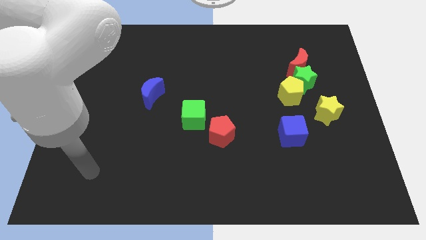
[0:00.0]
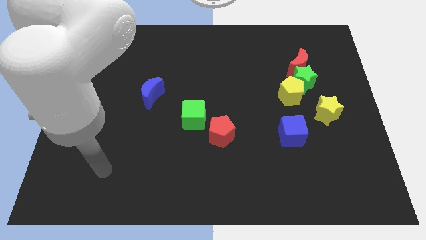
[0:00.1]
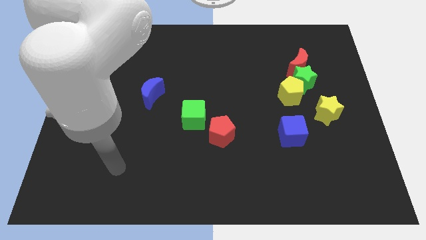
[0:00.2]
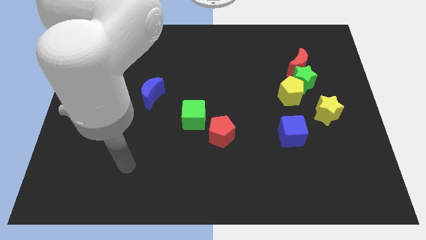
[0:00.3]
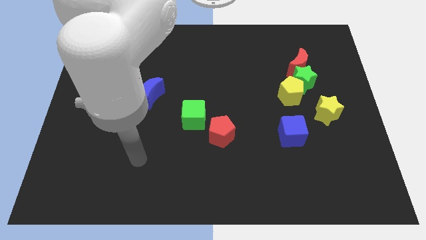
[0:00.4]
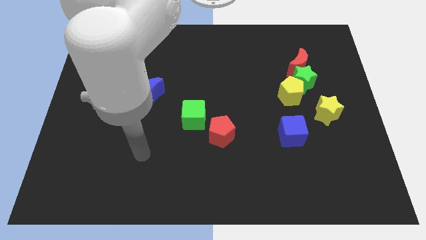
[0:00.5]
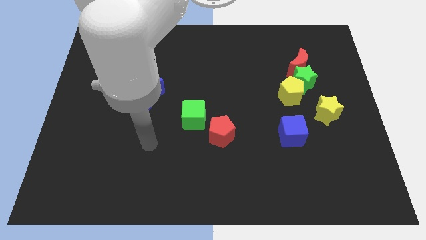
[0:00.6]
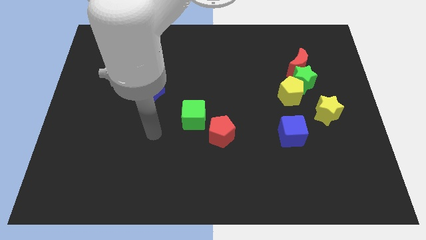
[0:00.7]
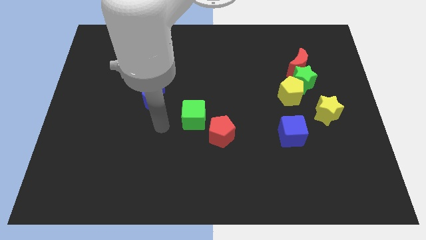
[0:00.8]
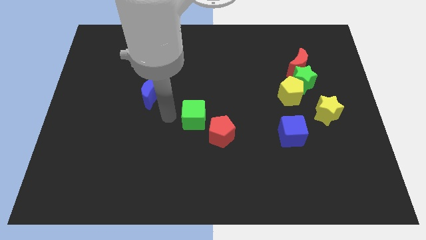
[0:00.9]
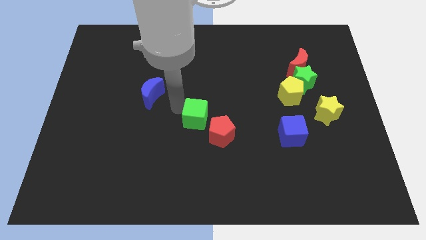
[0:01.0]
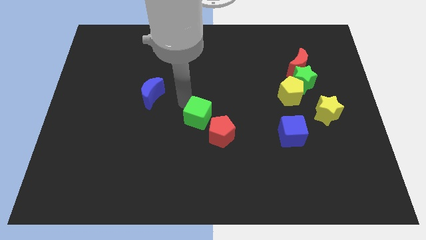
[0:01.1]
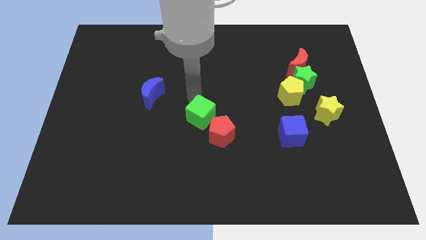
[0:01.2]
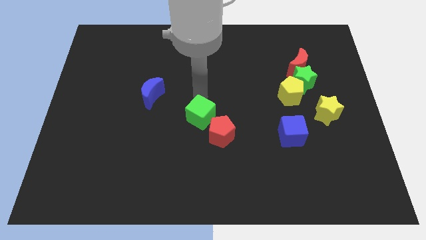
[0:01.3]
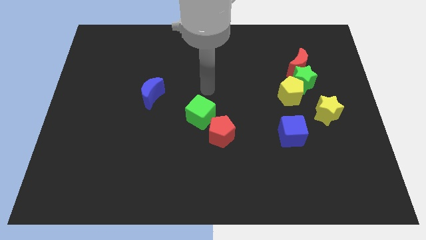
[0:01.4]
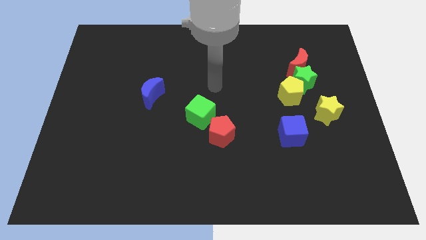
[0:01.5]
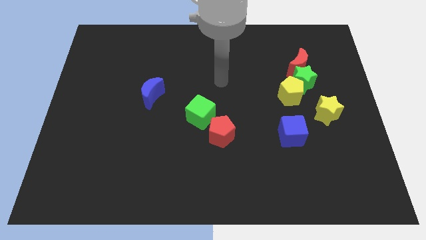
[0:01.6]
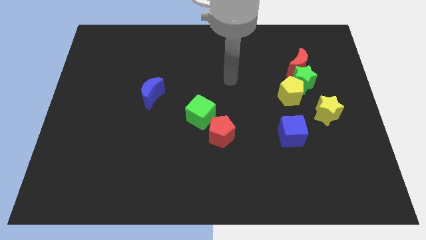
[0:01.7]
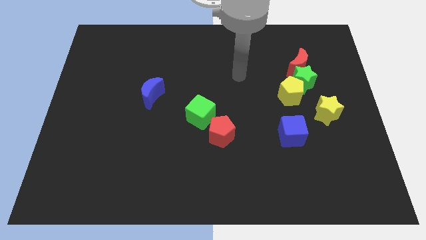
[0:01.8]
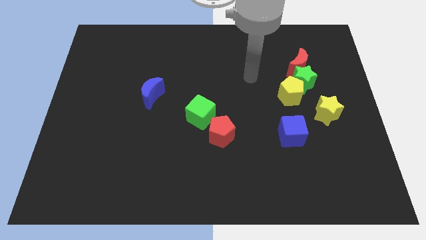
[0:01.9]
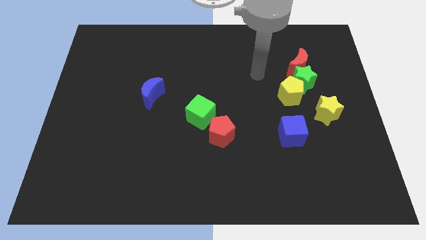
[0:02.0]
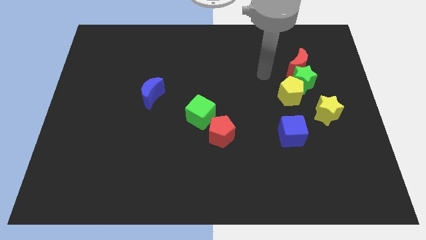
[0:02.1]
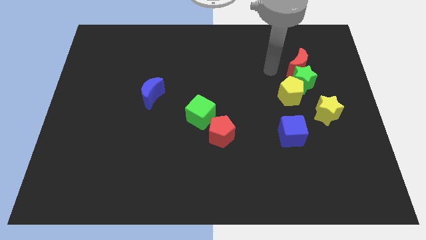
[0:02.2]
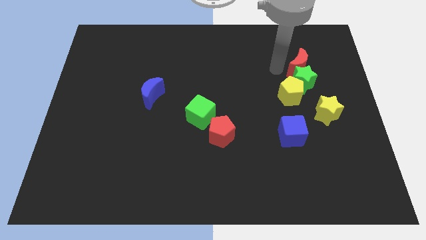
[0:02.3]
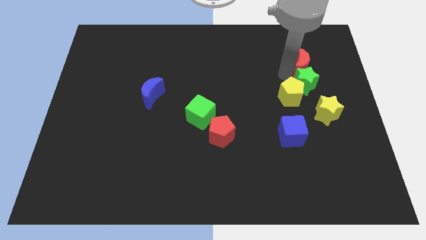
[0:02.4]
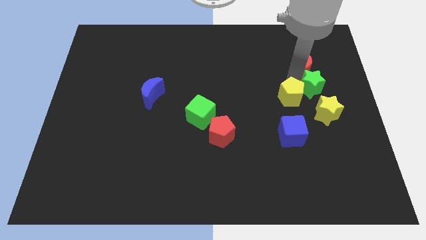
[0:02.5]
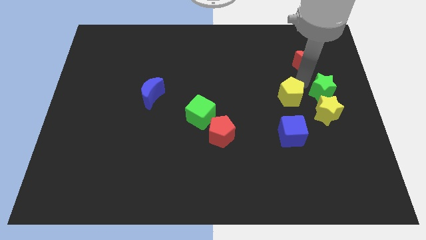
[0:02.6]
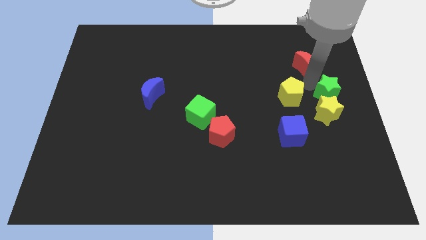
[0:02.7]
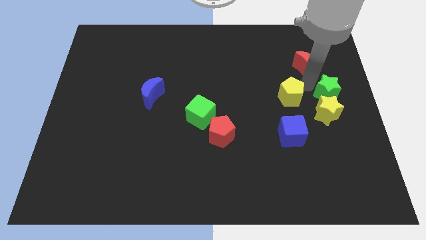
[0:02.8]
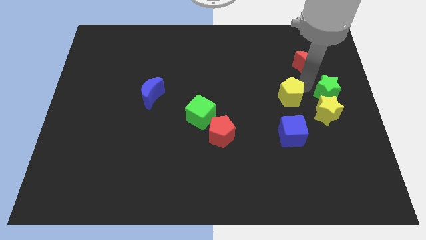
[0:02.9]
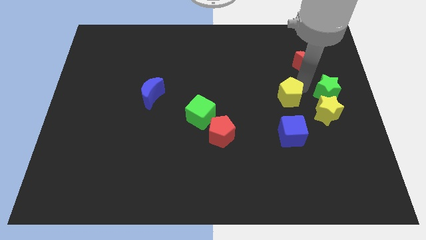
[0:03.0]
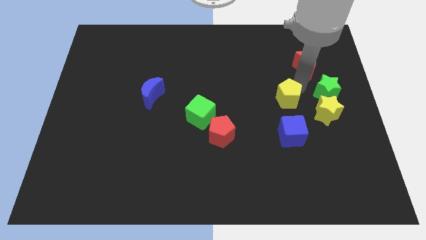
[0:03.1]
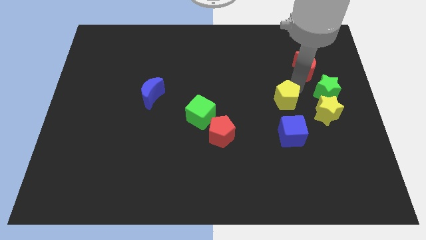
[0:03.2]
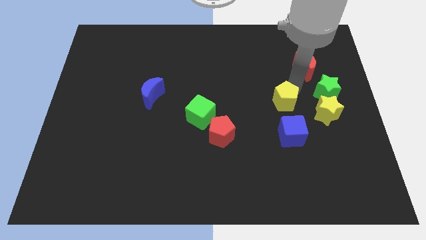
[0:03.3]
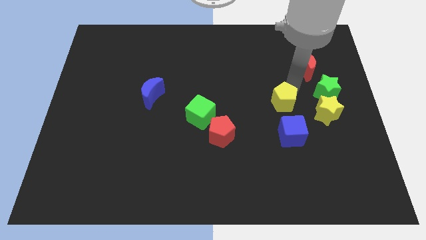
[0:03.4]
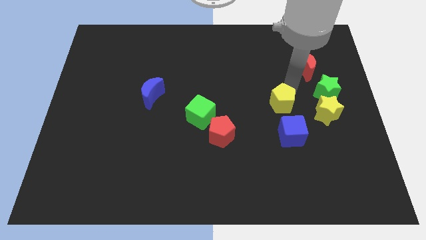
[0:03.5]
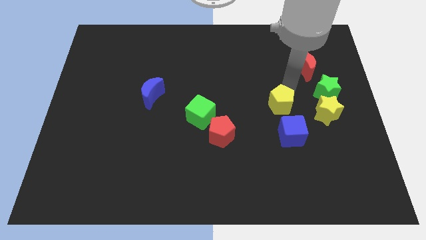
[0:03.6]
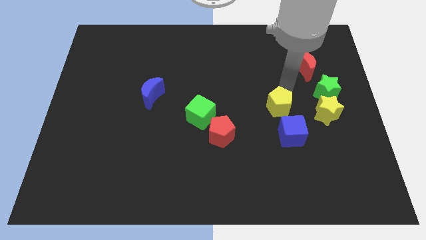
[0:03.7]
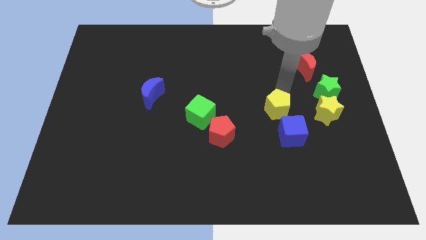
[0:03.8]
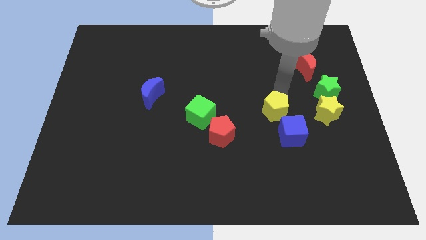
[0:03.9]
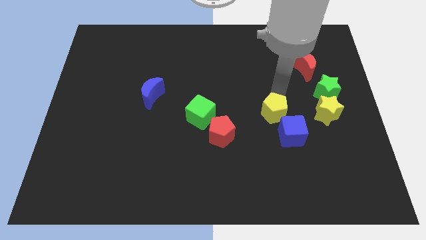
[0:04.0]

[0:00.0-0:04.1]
slightly move the yellow pentagon down and to the left diagonally

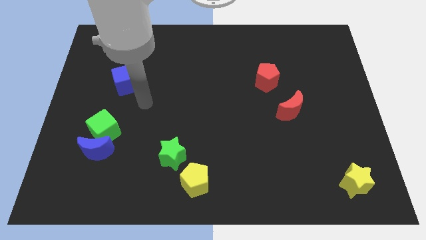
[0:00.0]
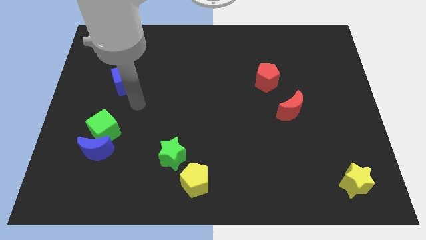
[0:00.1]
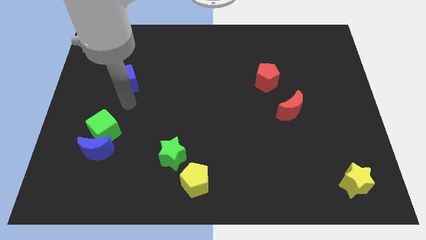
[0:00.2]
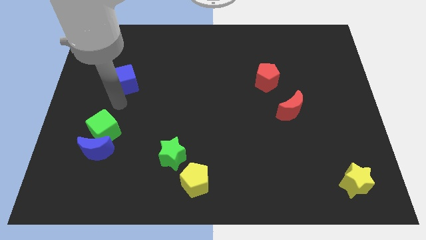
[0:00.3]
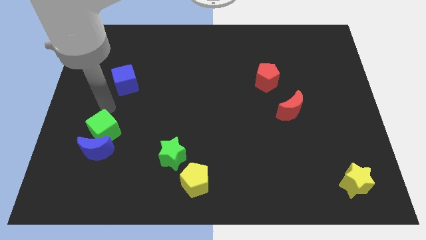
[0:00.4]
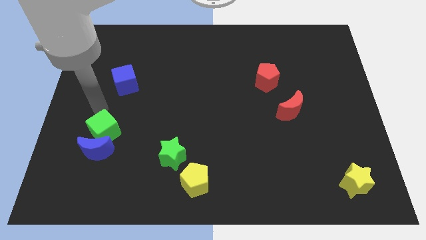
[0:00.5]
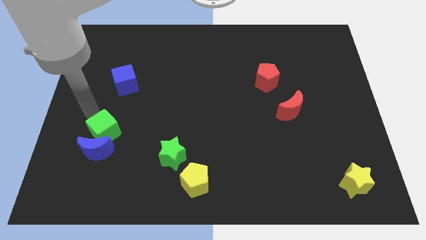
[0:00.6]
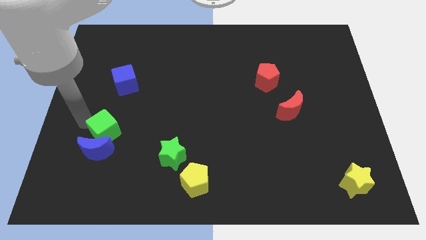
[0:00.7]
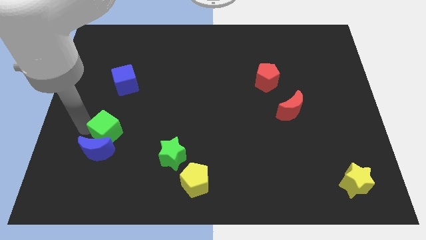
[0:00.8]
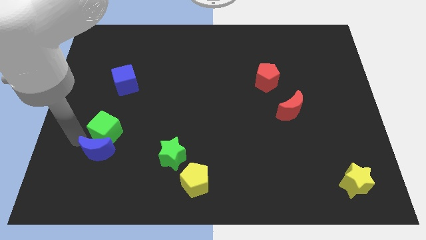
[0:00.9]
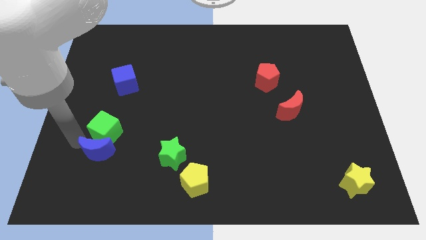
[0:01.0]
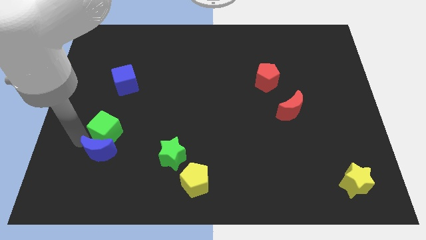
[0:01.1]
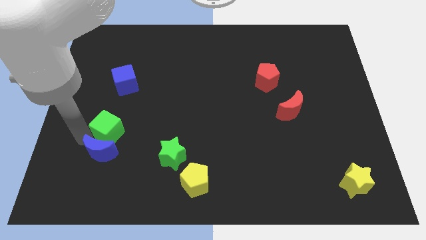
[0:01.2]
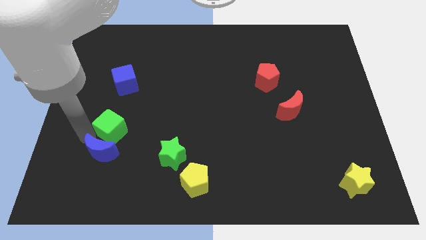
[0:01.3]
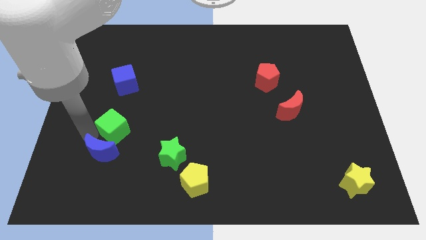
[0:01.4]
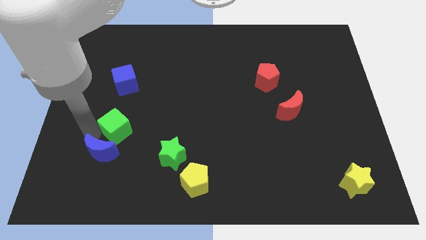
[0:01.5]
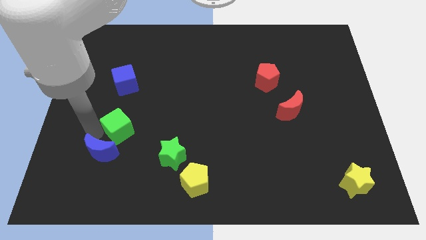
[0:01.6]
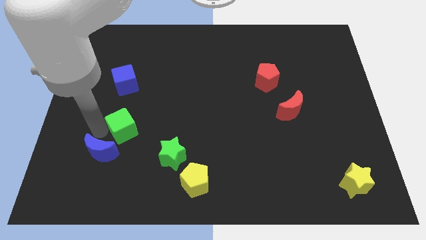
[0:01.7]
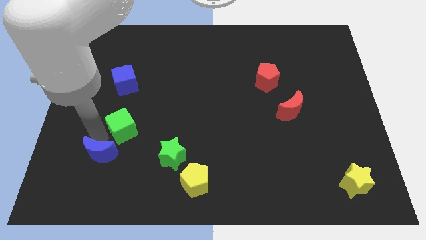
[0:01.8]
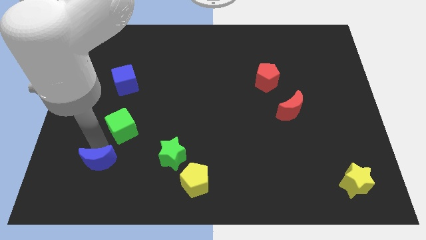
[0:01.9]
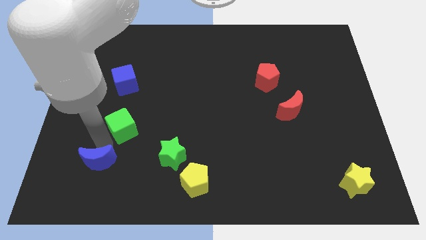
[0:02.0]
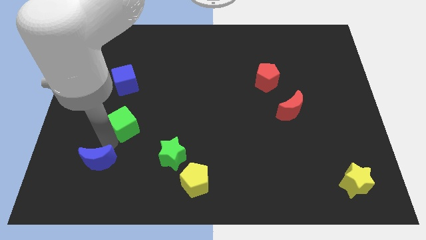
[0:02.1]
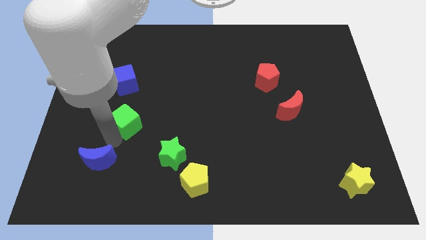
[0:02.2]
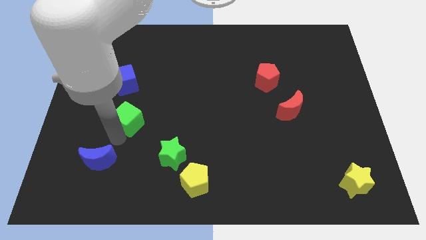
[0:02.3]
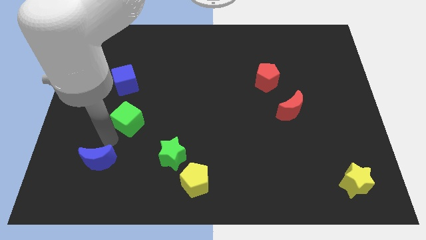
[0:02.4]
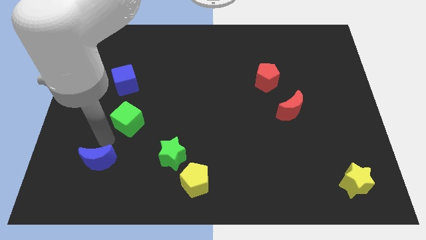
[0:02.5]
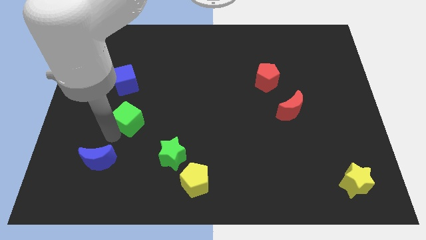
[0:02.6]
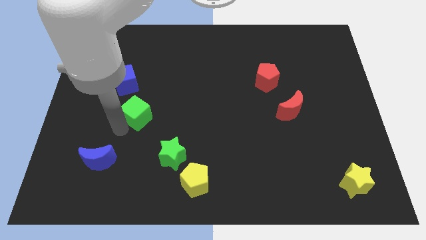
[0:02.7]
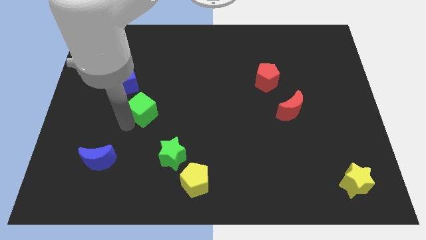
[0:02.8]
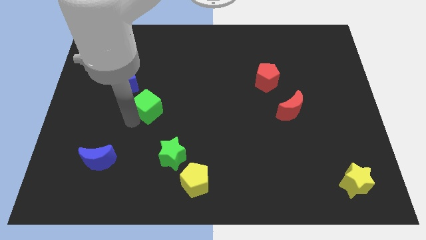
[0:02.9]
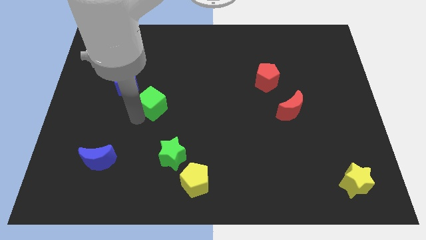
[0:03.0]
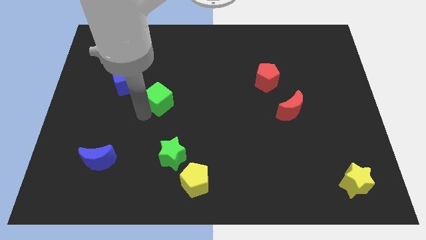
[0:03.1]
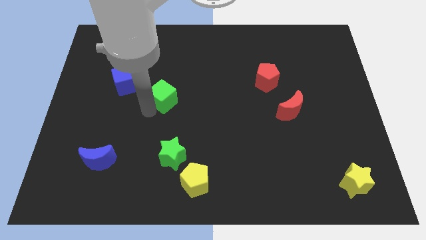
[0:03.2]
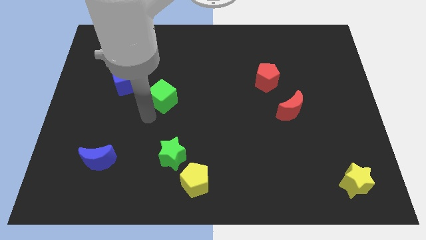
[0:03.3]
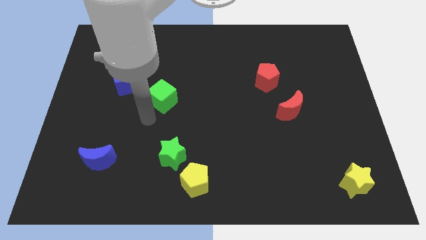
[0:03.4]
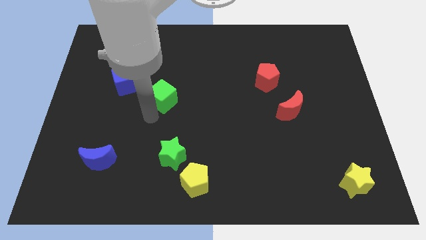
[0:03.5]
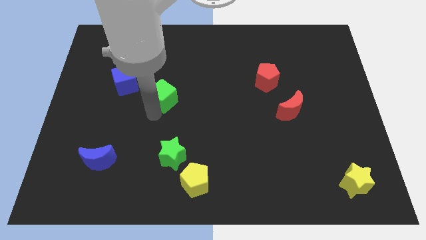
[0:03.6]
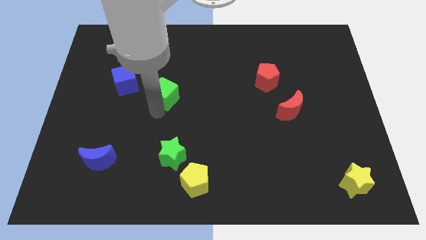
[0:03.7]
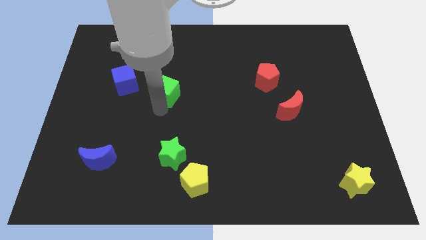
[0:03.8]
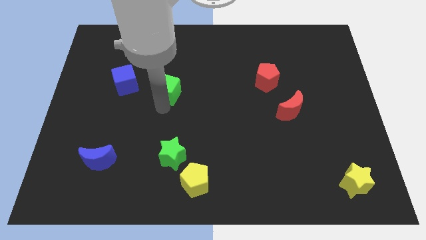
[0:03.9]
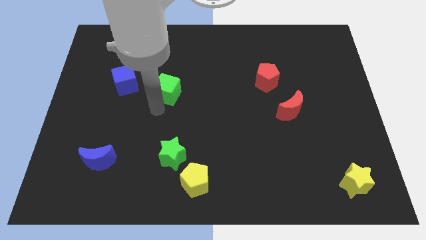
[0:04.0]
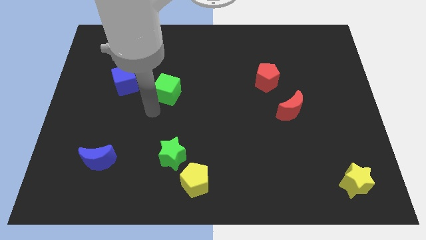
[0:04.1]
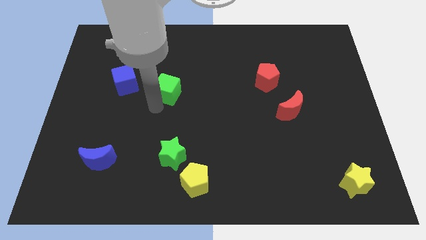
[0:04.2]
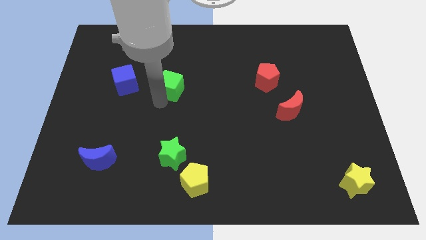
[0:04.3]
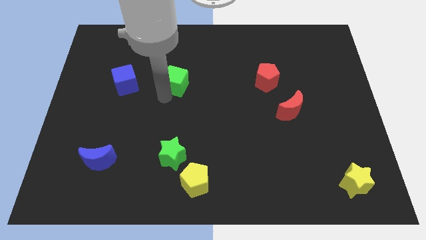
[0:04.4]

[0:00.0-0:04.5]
move the green cube diagonally up and to the right
